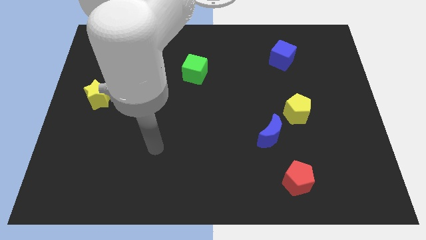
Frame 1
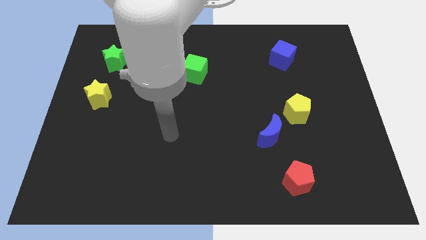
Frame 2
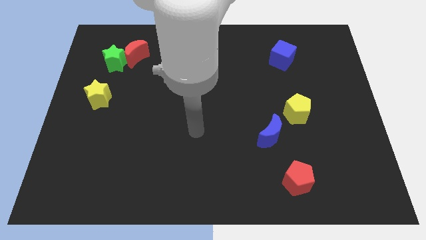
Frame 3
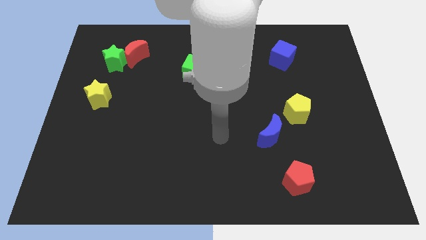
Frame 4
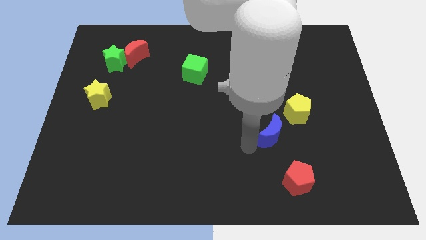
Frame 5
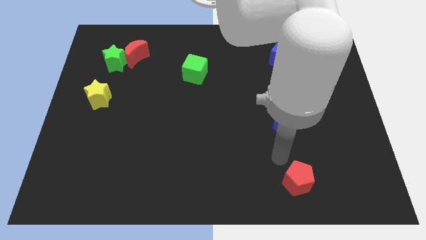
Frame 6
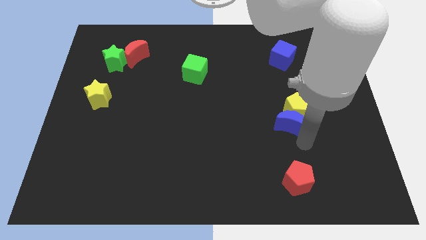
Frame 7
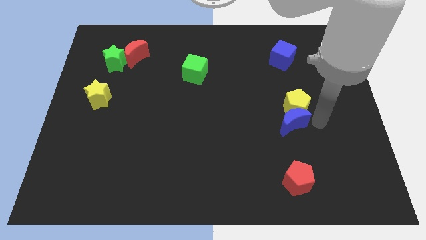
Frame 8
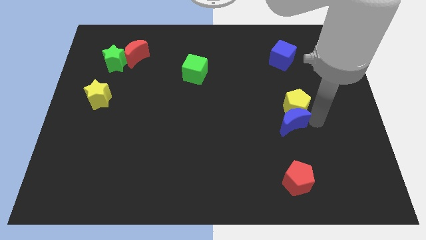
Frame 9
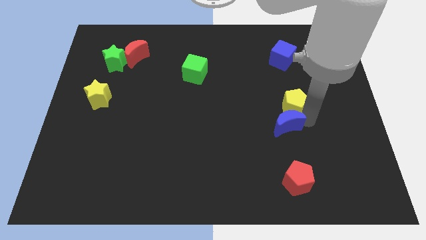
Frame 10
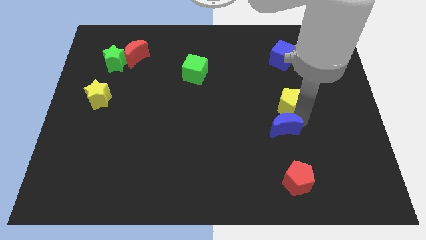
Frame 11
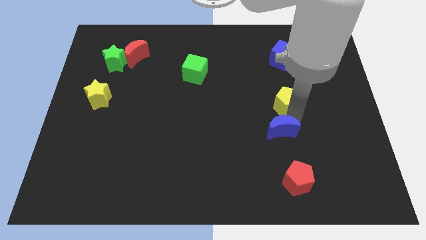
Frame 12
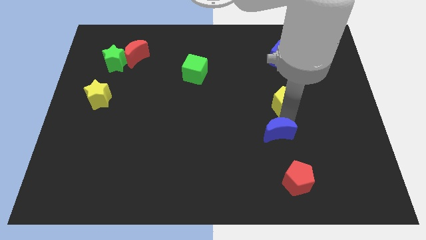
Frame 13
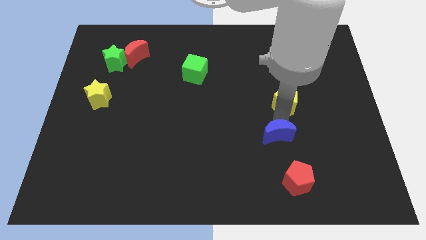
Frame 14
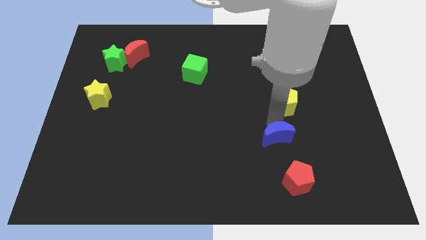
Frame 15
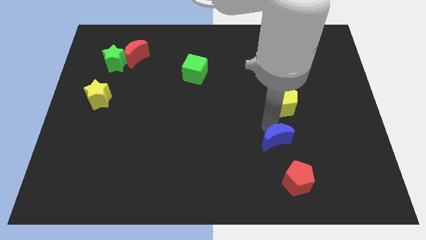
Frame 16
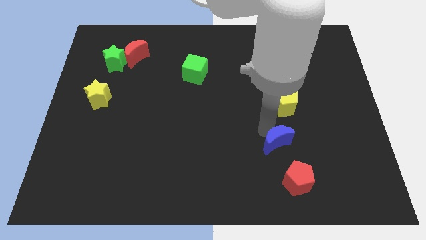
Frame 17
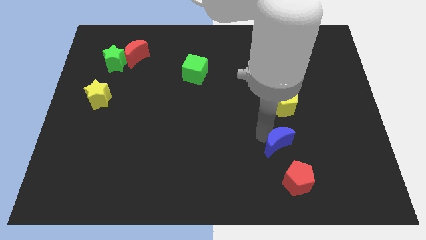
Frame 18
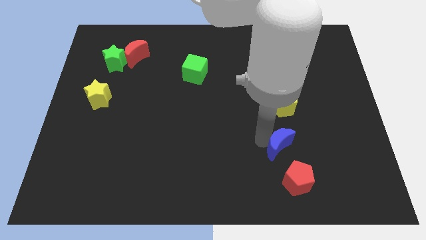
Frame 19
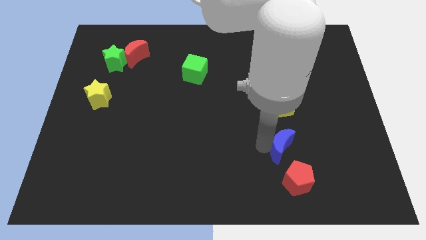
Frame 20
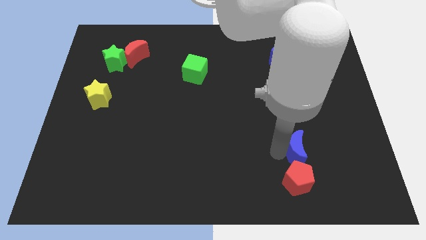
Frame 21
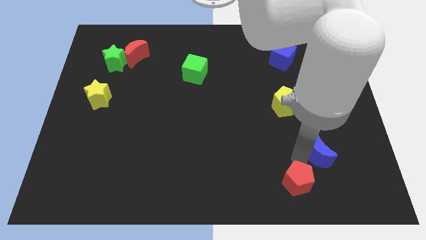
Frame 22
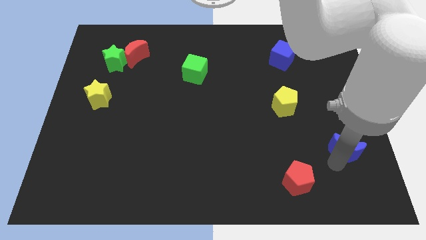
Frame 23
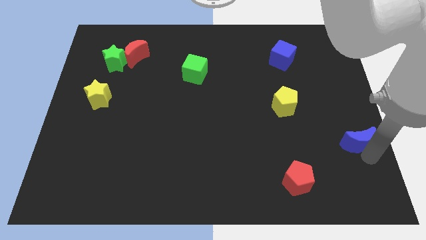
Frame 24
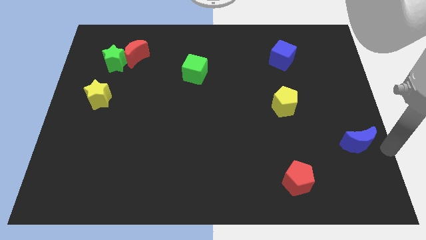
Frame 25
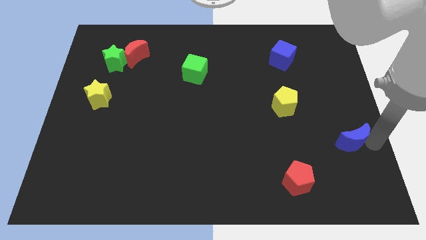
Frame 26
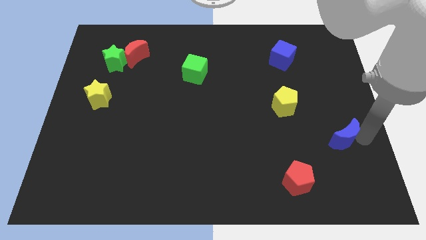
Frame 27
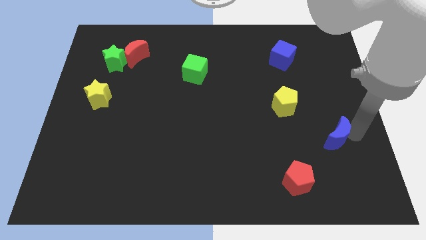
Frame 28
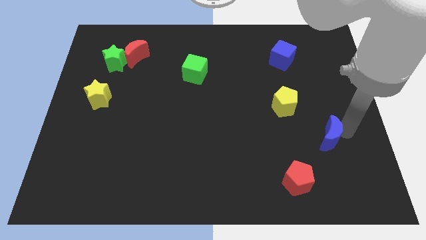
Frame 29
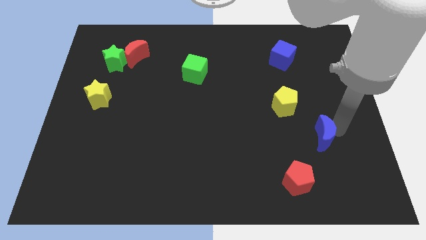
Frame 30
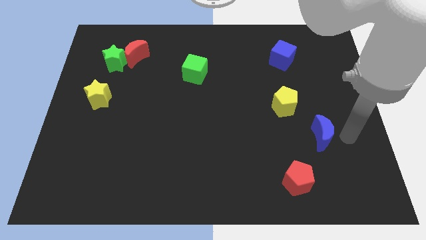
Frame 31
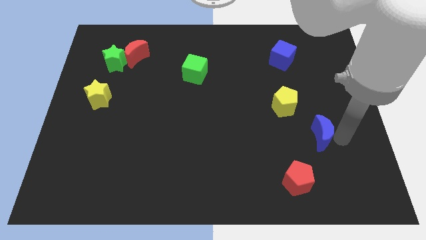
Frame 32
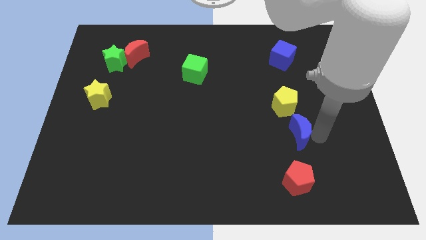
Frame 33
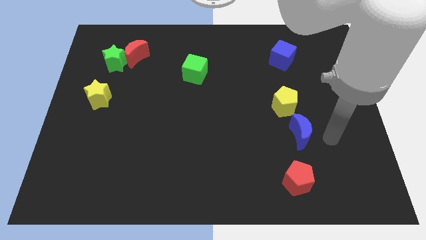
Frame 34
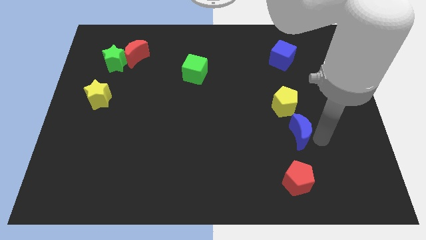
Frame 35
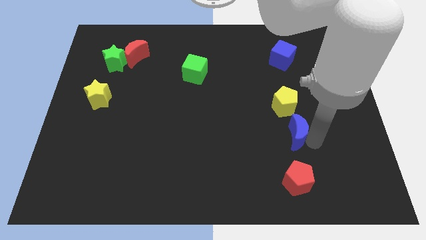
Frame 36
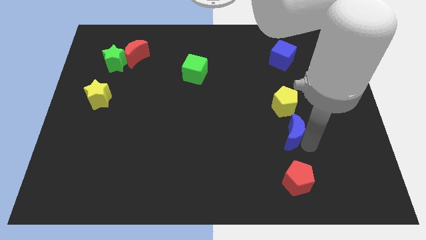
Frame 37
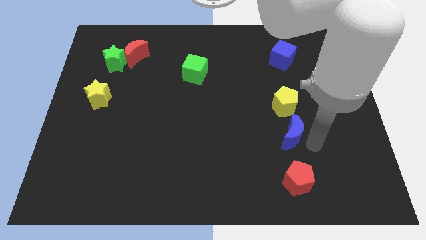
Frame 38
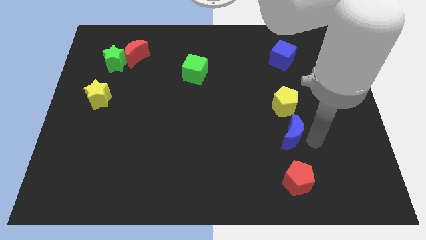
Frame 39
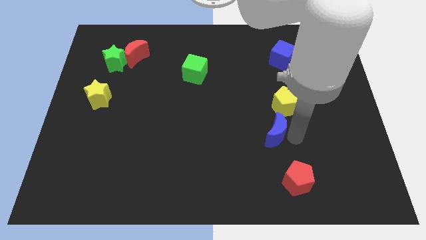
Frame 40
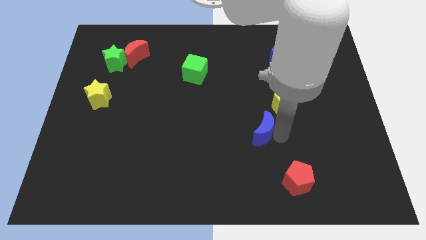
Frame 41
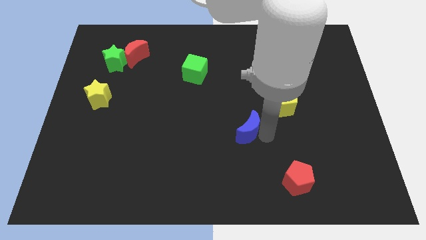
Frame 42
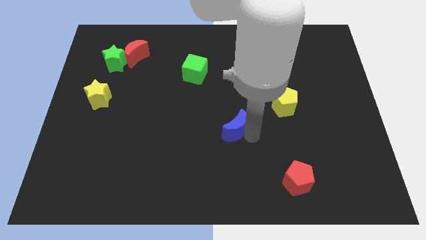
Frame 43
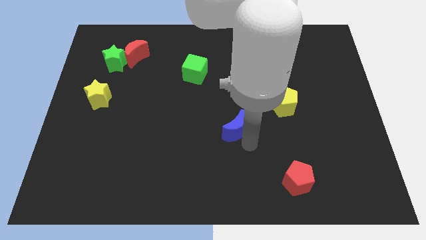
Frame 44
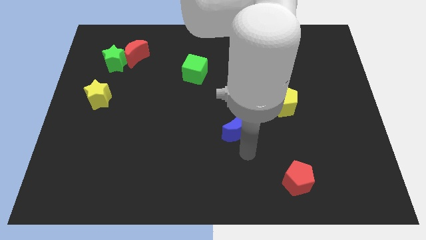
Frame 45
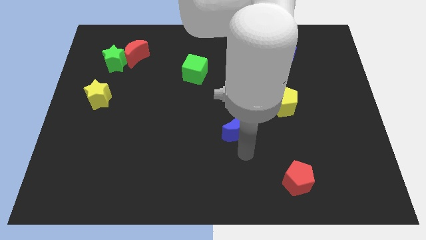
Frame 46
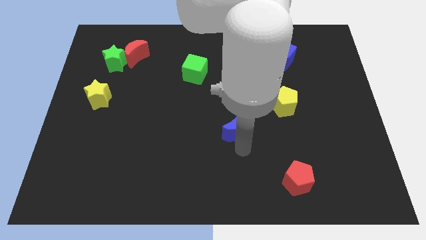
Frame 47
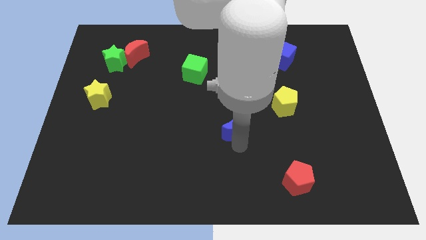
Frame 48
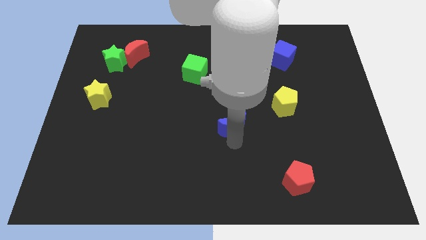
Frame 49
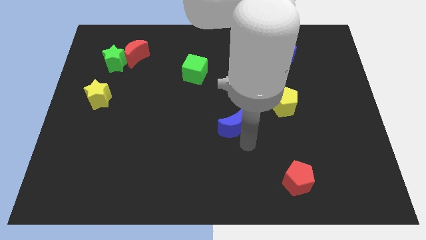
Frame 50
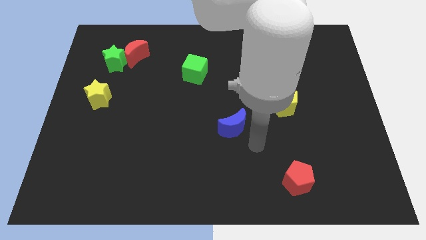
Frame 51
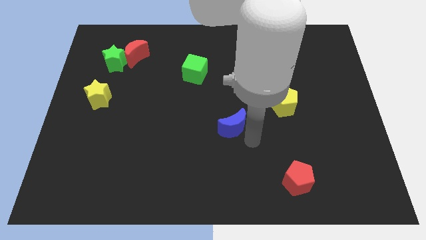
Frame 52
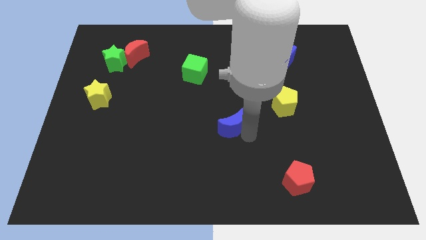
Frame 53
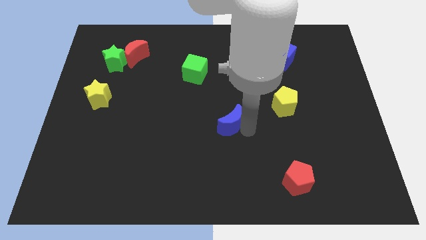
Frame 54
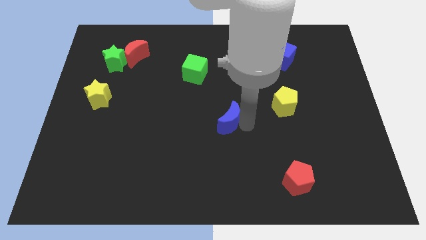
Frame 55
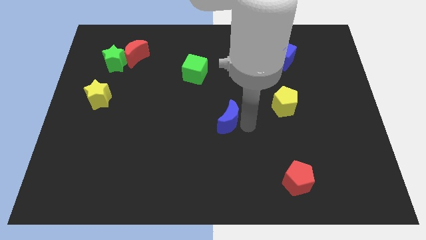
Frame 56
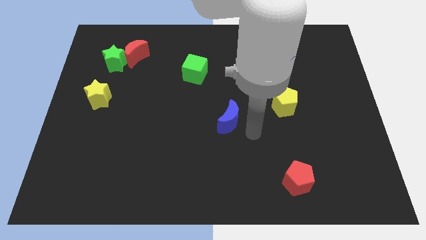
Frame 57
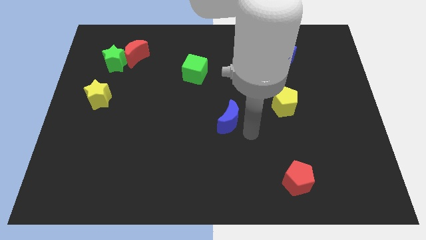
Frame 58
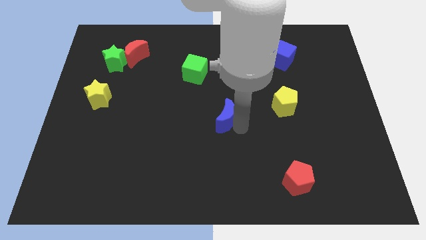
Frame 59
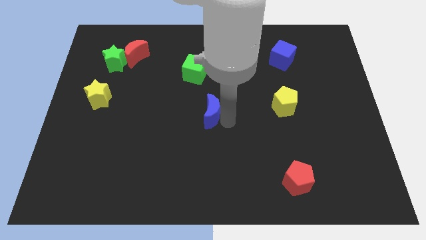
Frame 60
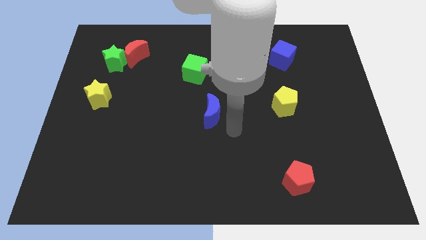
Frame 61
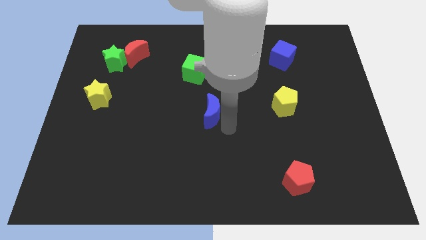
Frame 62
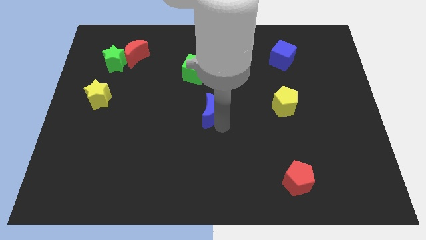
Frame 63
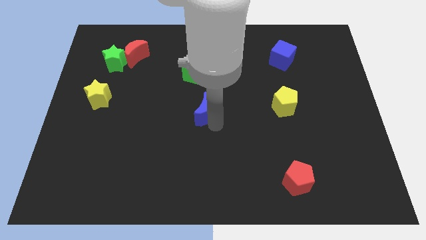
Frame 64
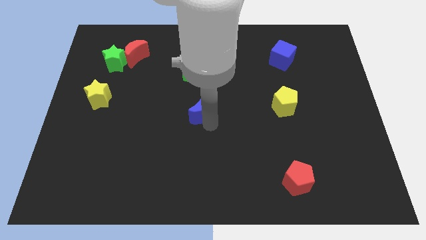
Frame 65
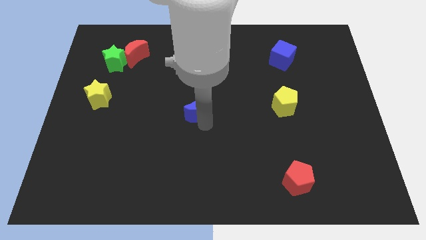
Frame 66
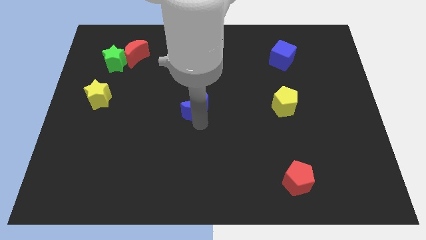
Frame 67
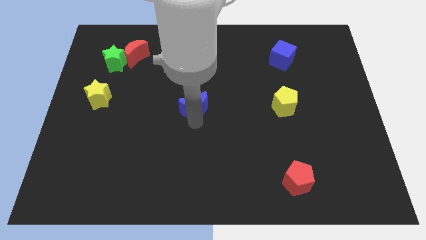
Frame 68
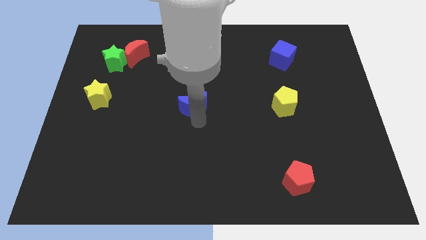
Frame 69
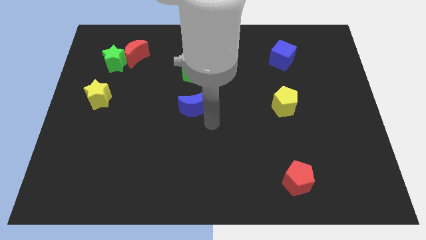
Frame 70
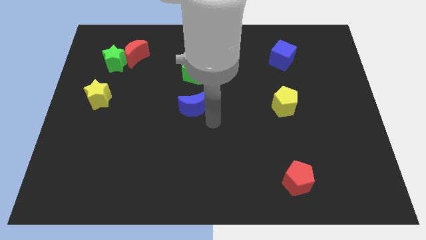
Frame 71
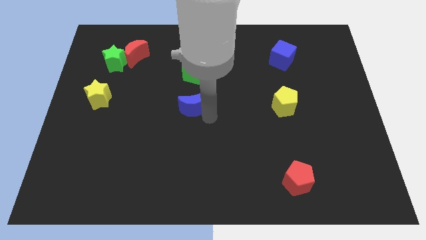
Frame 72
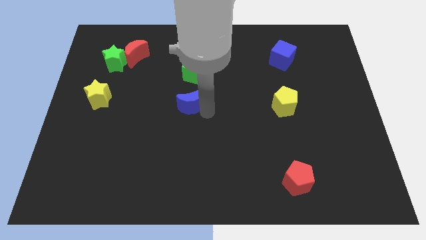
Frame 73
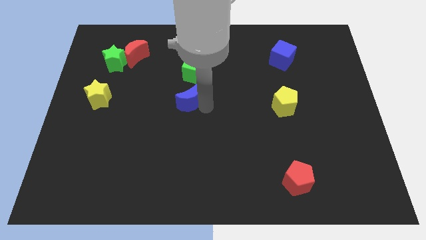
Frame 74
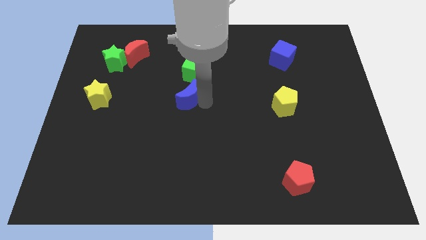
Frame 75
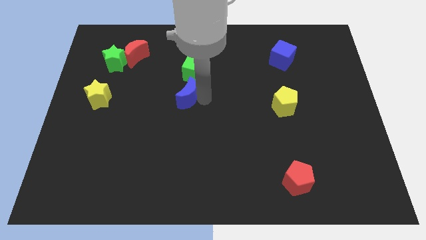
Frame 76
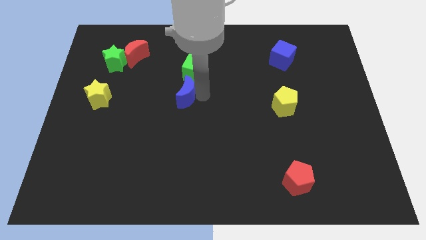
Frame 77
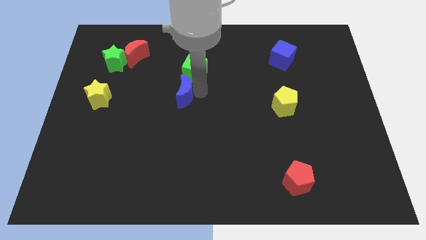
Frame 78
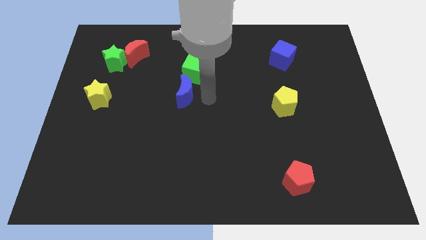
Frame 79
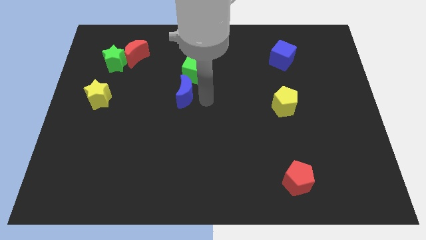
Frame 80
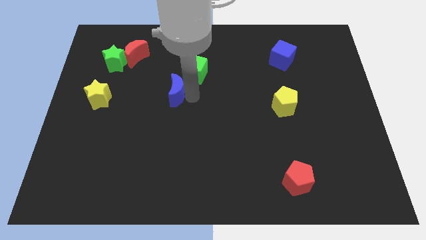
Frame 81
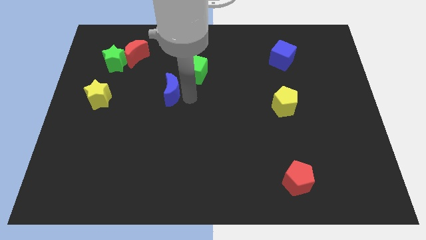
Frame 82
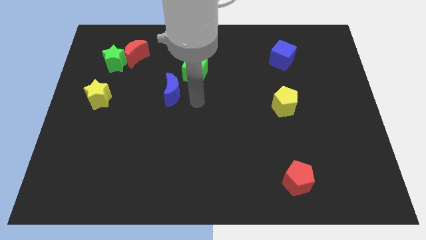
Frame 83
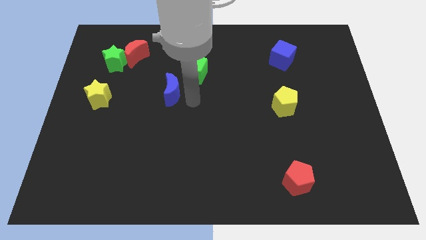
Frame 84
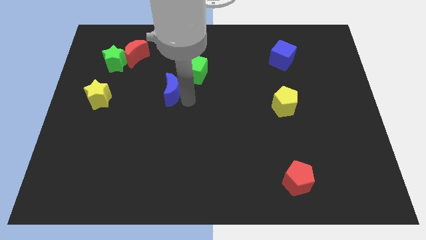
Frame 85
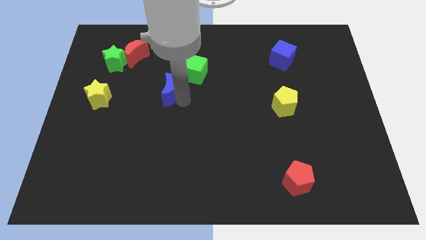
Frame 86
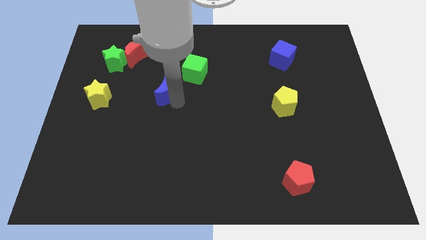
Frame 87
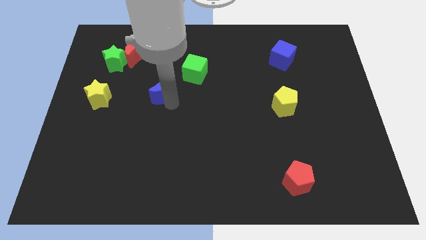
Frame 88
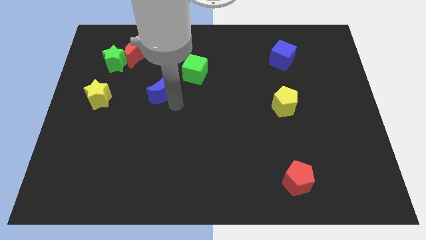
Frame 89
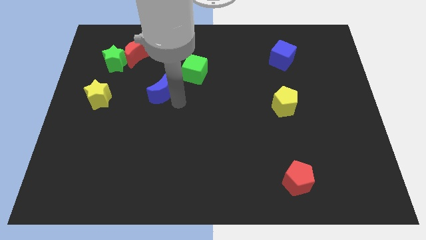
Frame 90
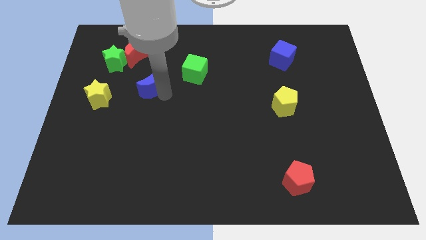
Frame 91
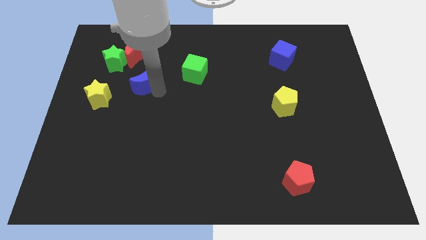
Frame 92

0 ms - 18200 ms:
slide the blue moon diagonally down and to the right of the green star
